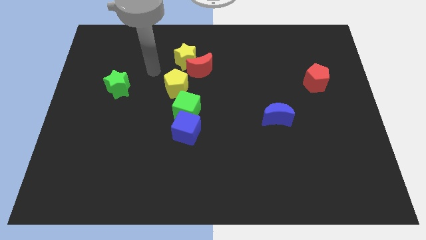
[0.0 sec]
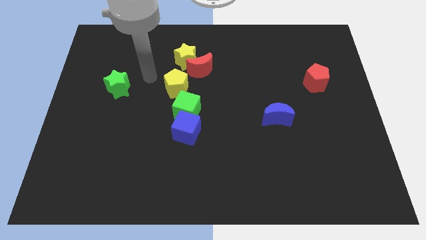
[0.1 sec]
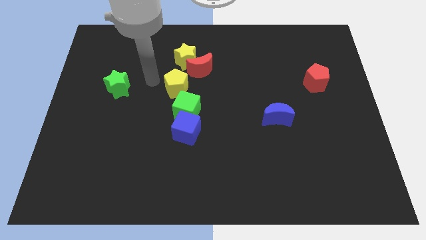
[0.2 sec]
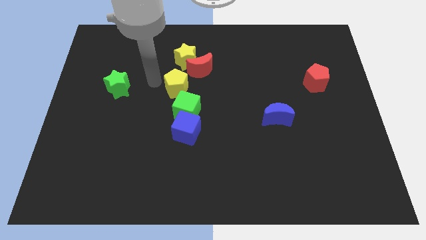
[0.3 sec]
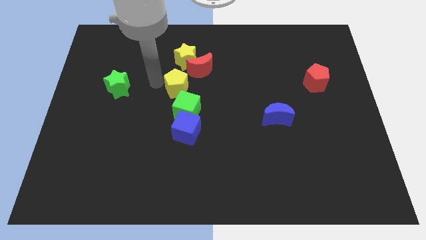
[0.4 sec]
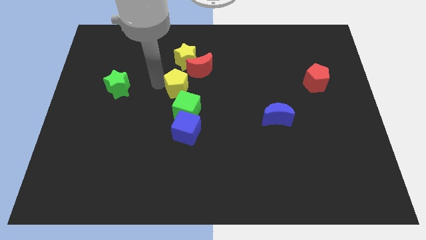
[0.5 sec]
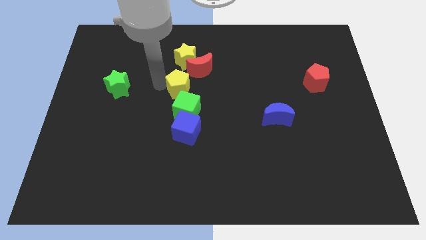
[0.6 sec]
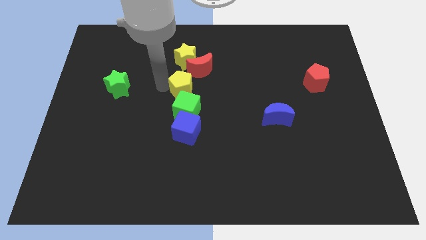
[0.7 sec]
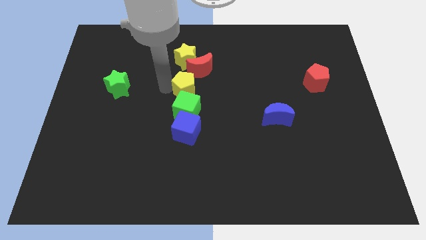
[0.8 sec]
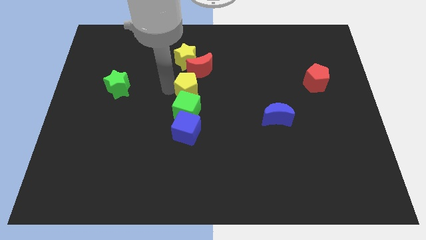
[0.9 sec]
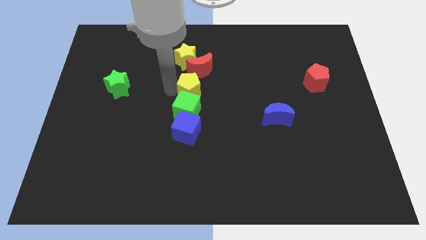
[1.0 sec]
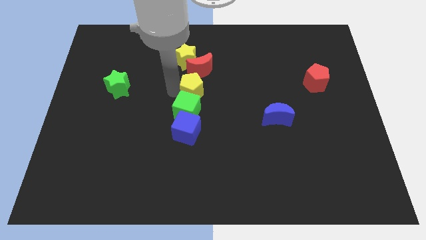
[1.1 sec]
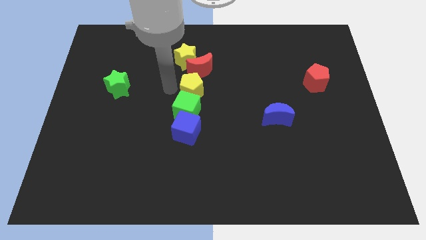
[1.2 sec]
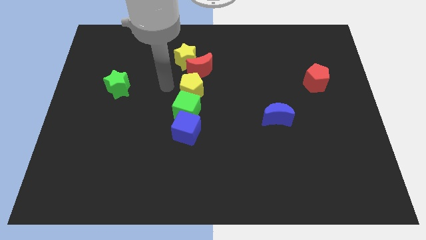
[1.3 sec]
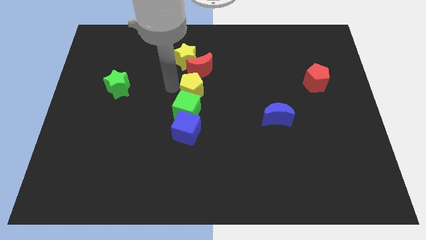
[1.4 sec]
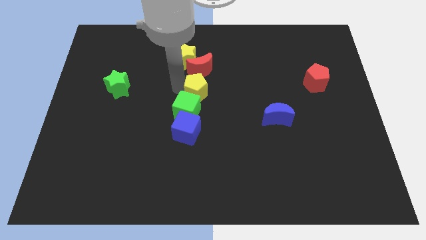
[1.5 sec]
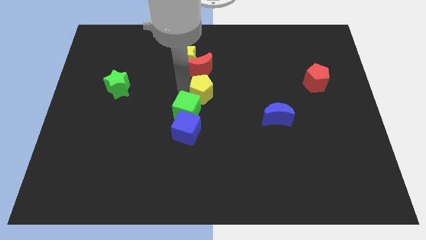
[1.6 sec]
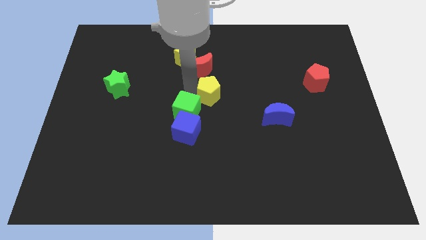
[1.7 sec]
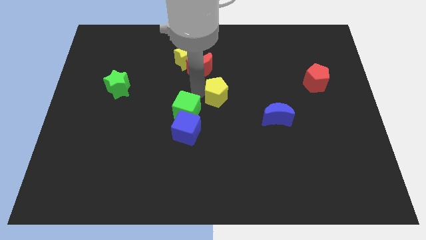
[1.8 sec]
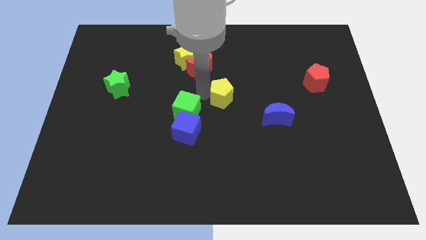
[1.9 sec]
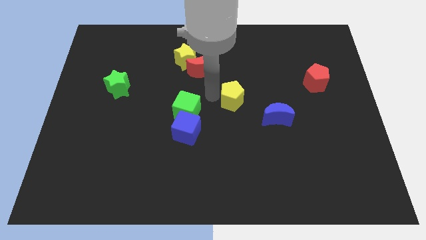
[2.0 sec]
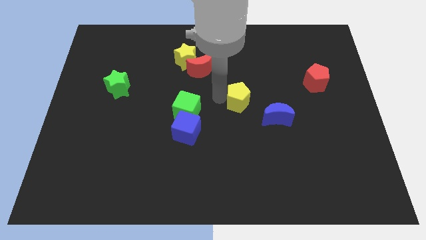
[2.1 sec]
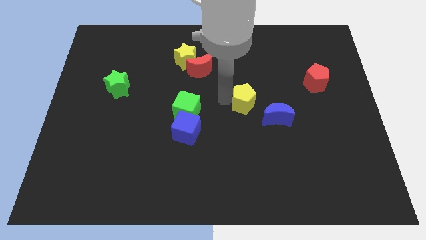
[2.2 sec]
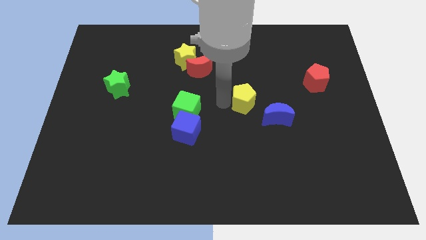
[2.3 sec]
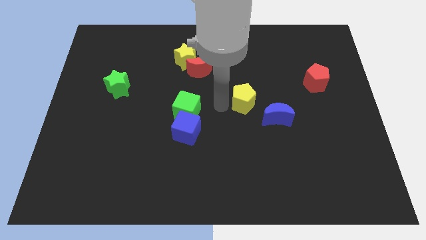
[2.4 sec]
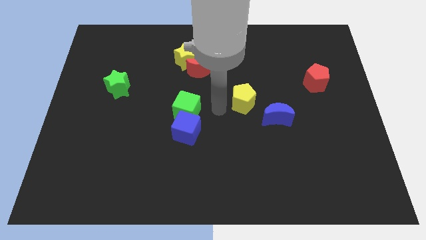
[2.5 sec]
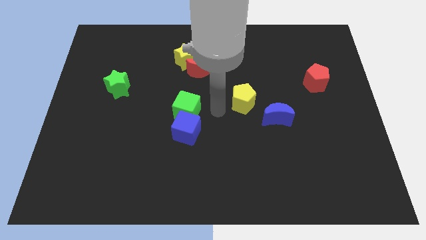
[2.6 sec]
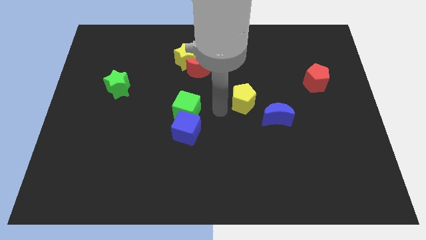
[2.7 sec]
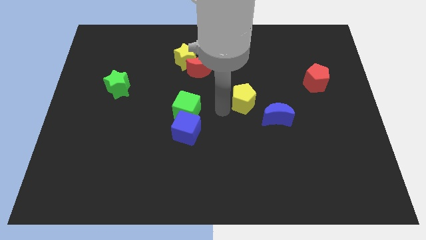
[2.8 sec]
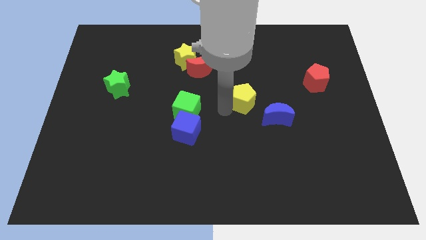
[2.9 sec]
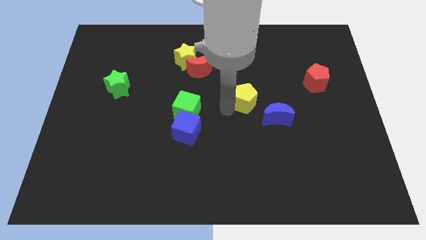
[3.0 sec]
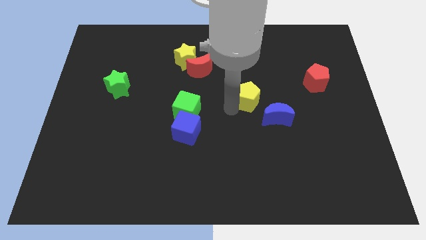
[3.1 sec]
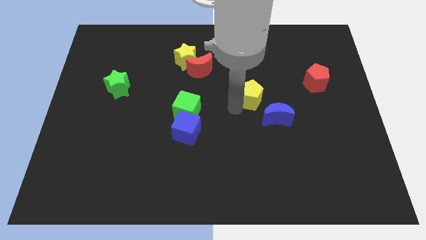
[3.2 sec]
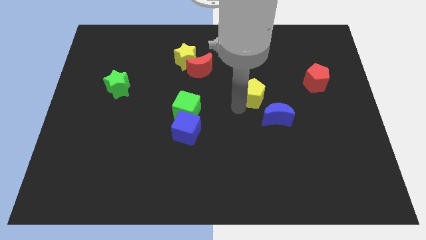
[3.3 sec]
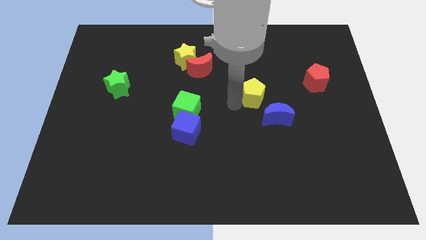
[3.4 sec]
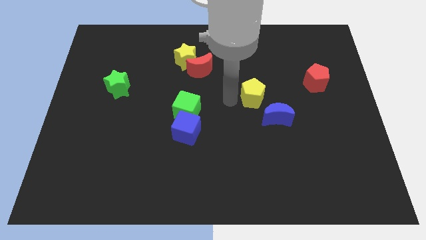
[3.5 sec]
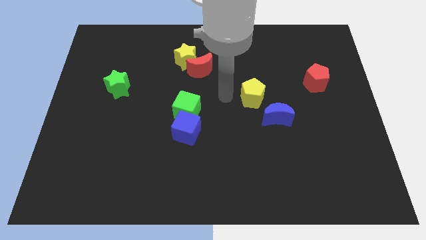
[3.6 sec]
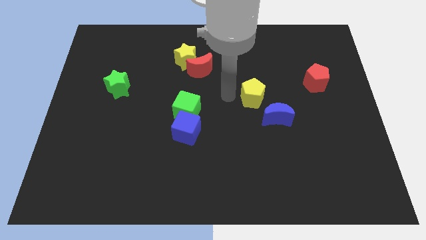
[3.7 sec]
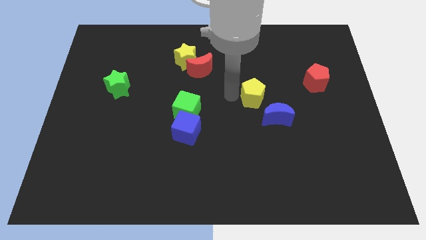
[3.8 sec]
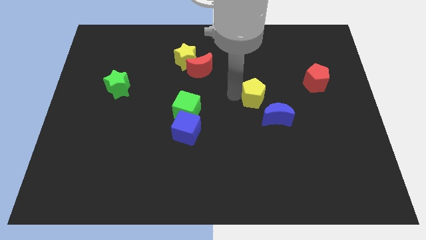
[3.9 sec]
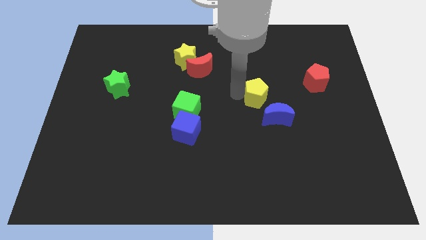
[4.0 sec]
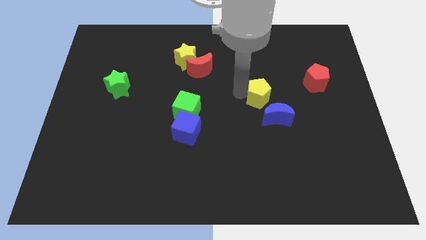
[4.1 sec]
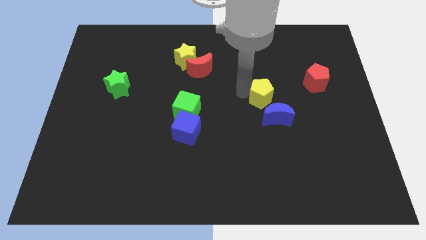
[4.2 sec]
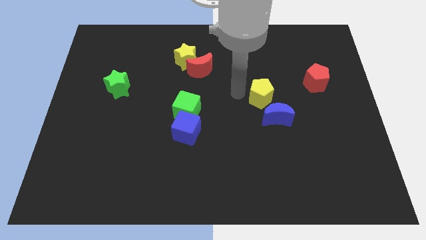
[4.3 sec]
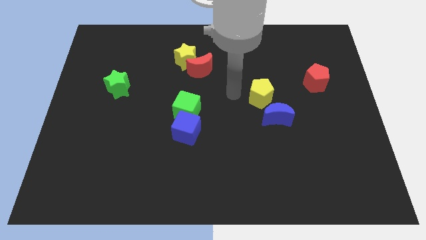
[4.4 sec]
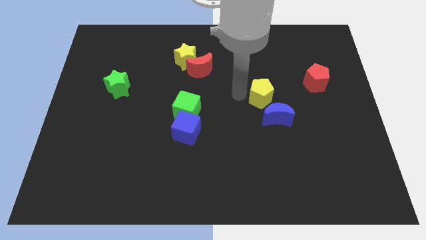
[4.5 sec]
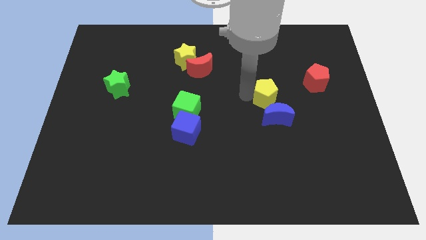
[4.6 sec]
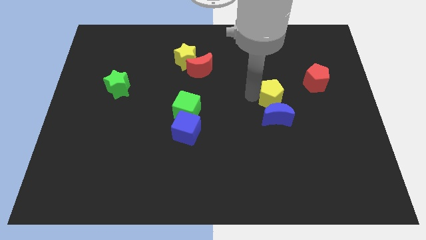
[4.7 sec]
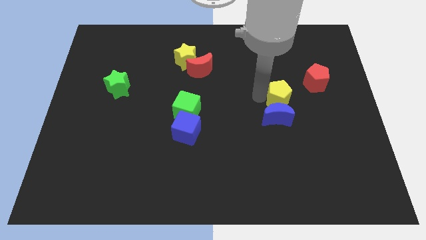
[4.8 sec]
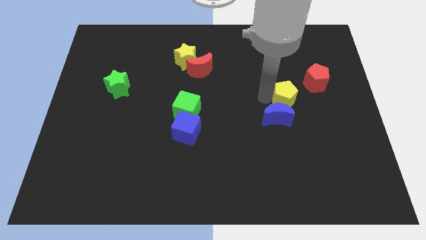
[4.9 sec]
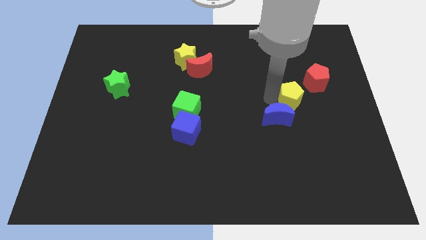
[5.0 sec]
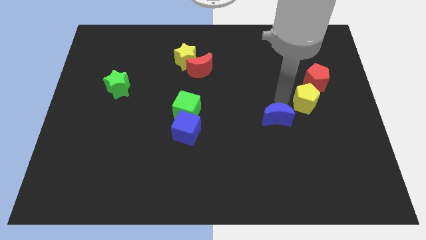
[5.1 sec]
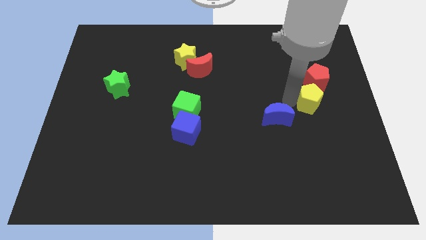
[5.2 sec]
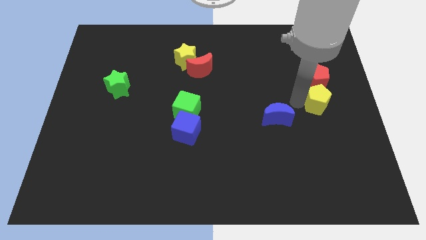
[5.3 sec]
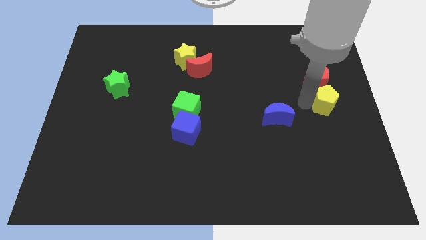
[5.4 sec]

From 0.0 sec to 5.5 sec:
move the yellow pentagon to the right side of the board
